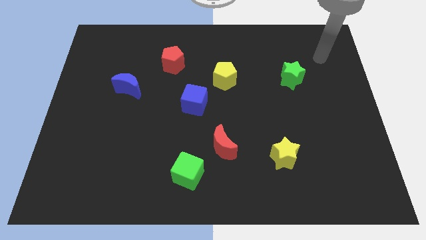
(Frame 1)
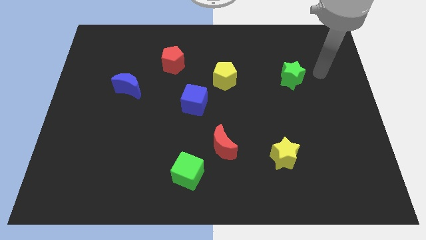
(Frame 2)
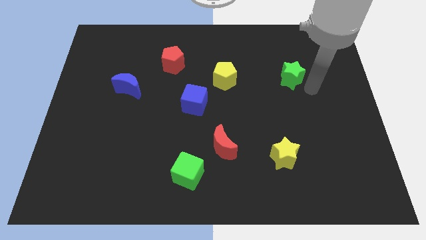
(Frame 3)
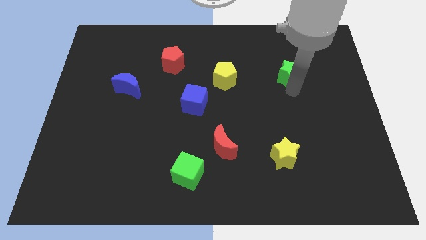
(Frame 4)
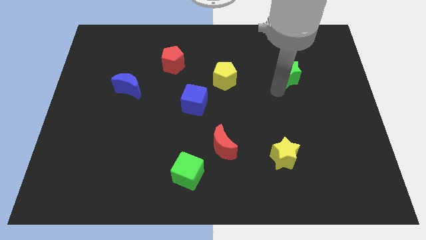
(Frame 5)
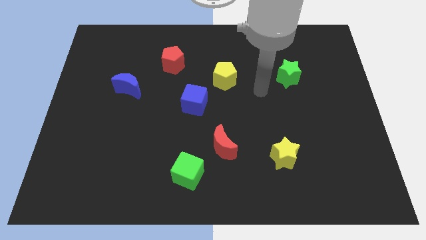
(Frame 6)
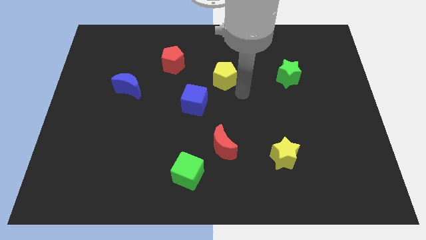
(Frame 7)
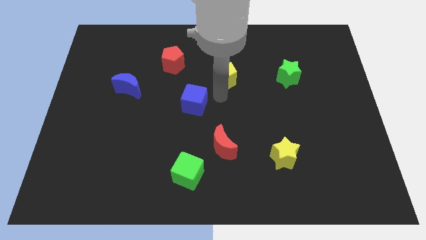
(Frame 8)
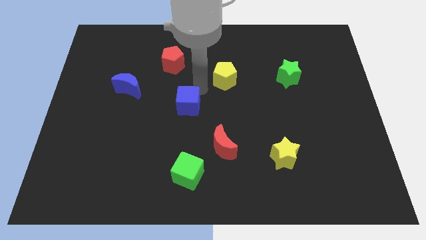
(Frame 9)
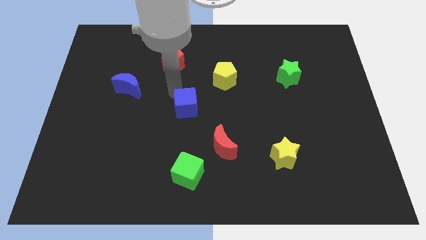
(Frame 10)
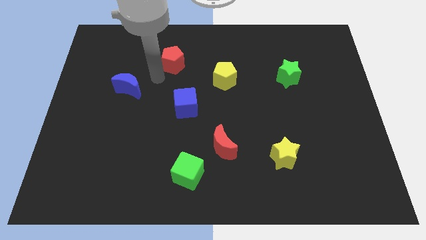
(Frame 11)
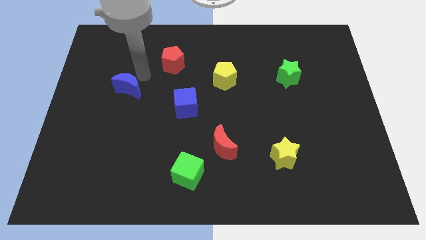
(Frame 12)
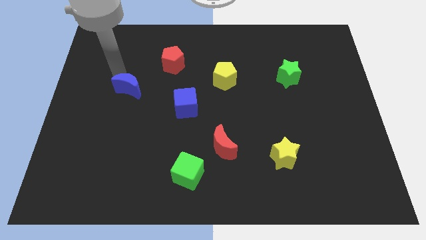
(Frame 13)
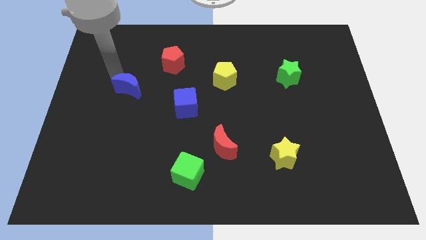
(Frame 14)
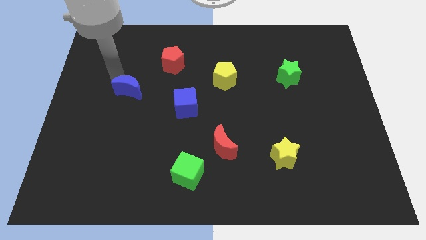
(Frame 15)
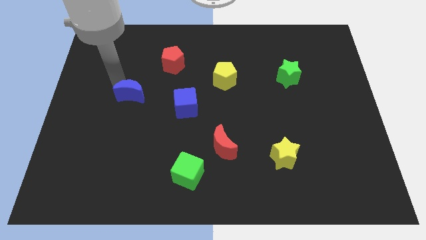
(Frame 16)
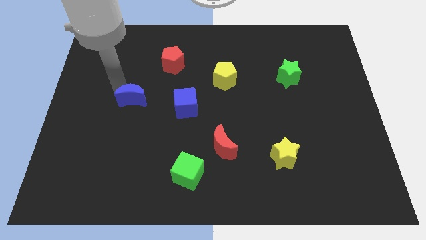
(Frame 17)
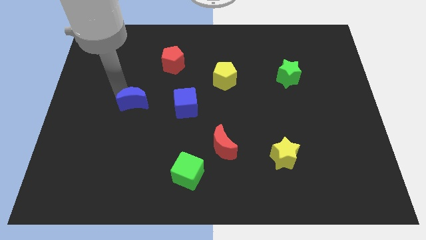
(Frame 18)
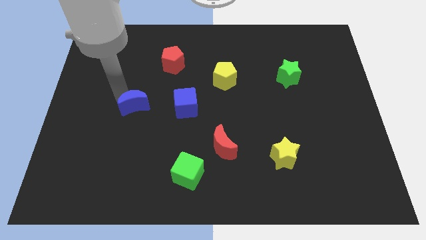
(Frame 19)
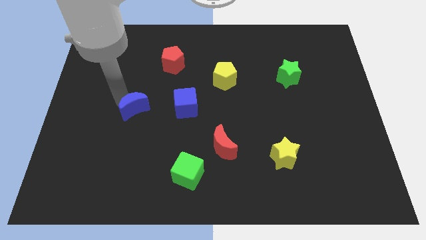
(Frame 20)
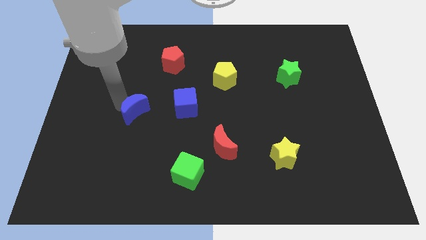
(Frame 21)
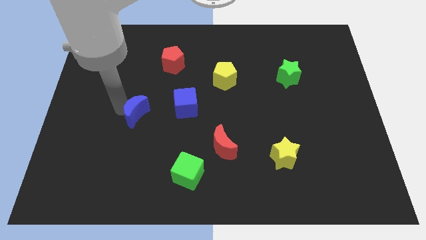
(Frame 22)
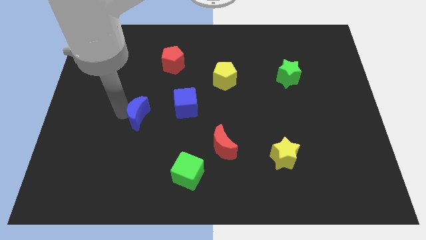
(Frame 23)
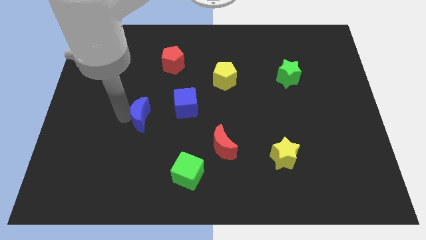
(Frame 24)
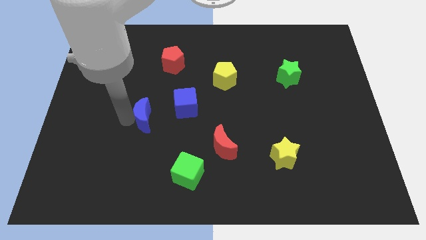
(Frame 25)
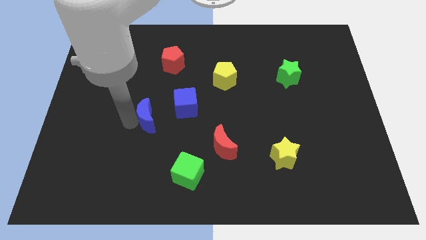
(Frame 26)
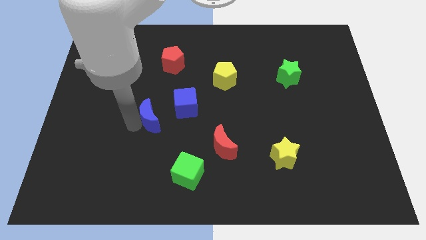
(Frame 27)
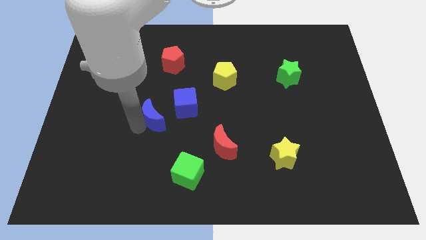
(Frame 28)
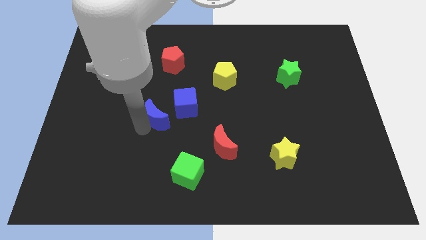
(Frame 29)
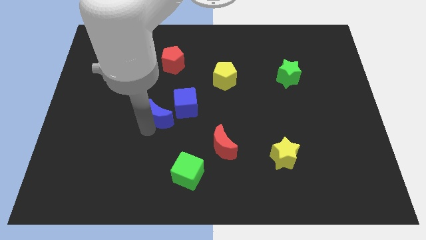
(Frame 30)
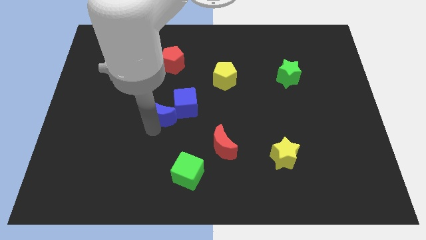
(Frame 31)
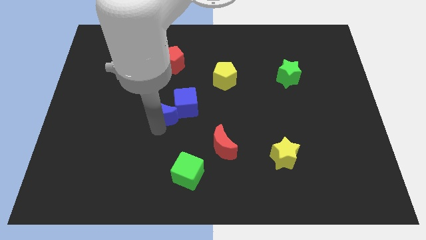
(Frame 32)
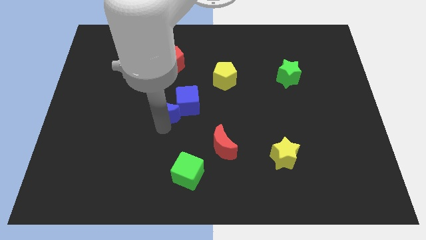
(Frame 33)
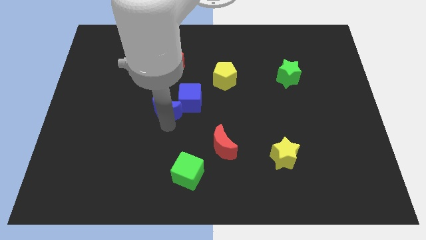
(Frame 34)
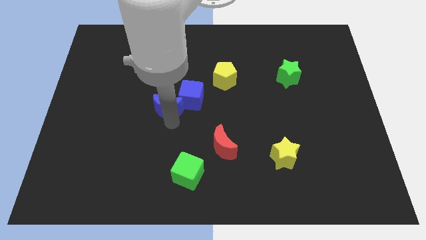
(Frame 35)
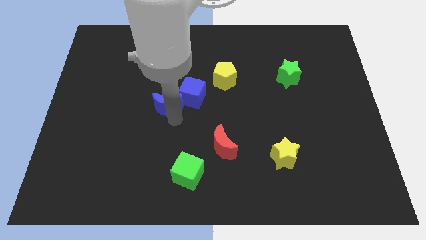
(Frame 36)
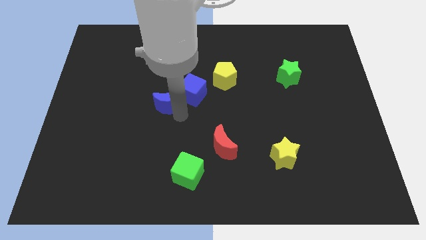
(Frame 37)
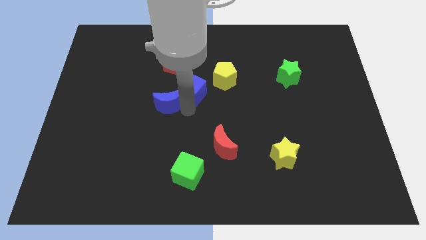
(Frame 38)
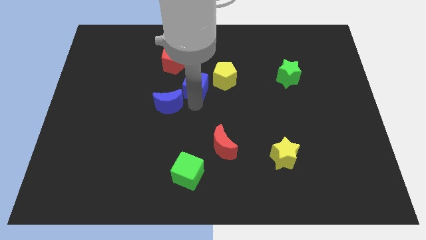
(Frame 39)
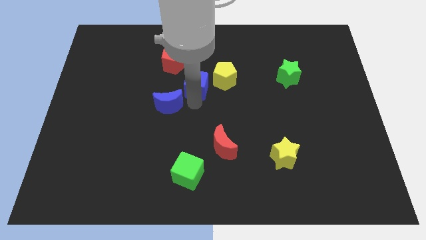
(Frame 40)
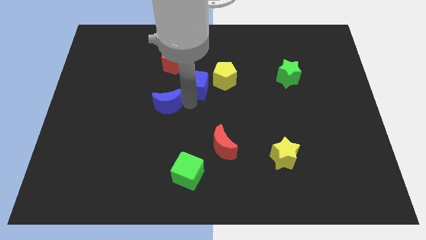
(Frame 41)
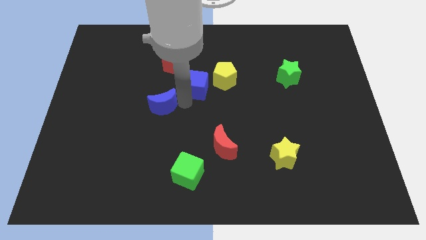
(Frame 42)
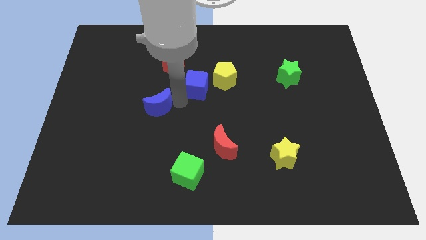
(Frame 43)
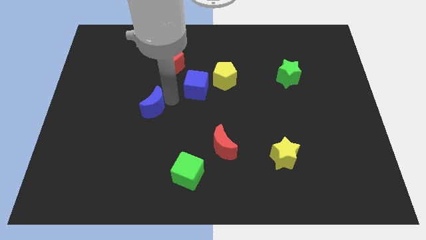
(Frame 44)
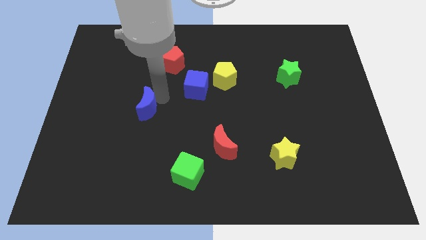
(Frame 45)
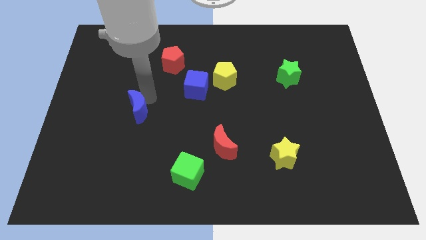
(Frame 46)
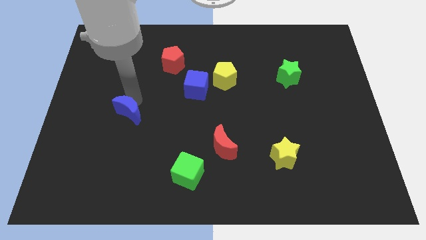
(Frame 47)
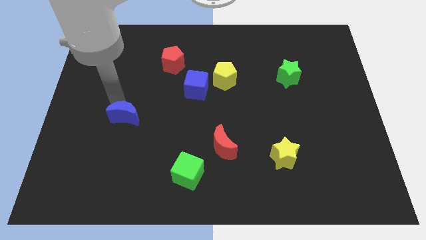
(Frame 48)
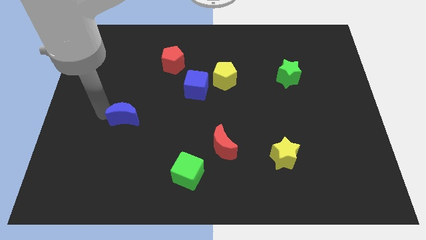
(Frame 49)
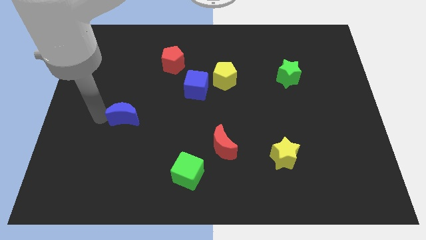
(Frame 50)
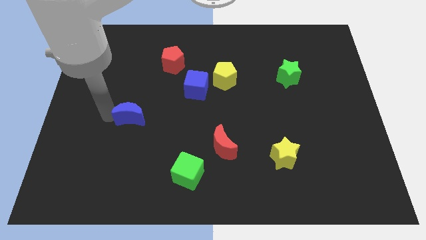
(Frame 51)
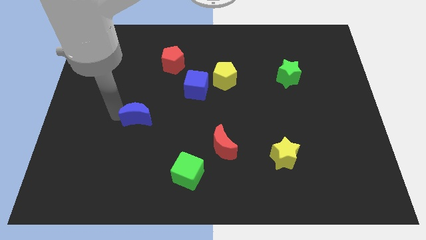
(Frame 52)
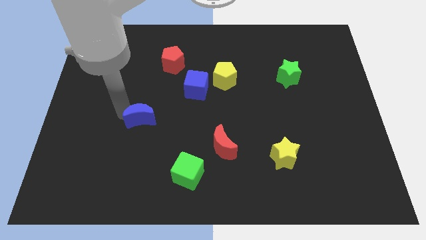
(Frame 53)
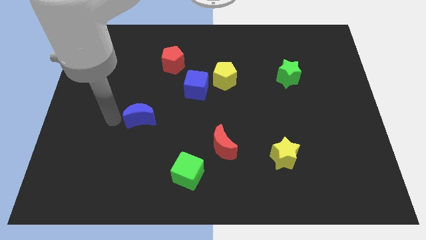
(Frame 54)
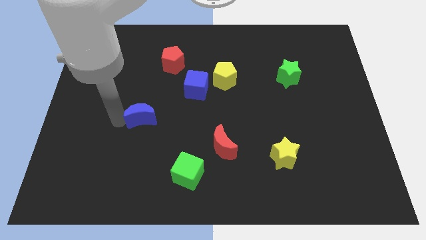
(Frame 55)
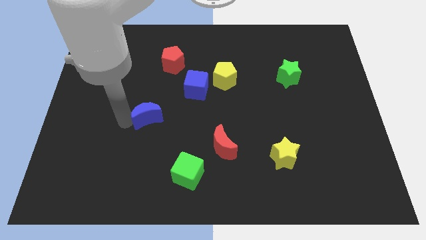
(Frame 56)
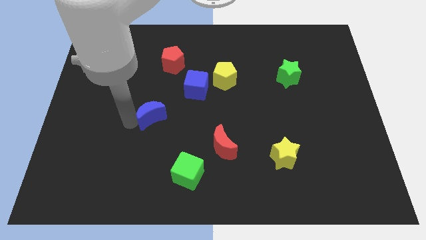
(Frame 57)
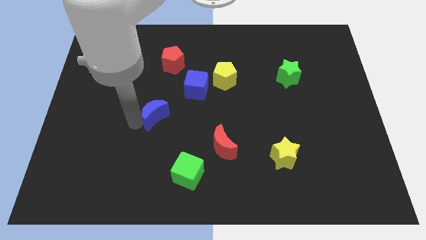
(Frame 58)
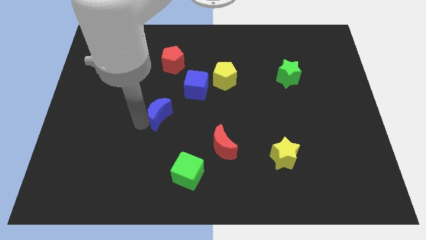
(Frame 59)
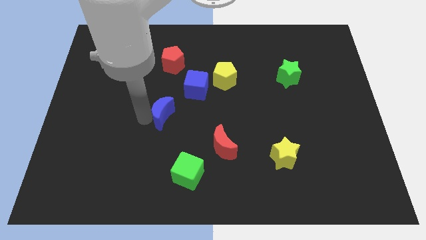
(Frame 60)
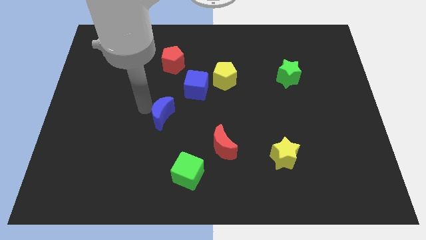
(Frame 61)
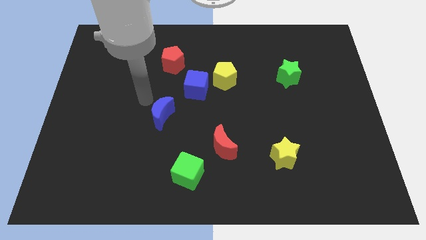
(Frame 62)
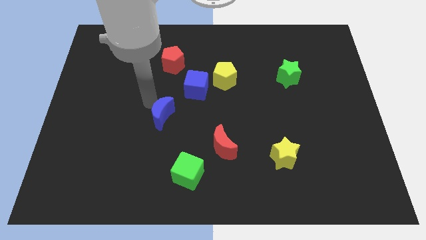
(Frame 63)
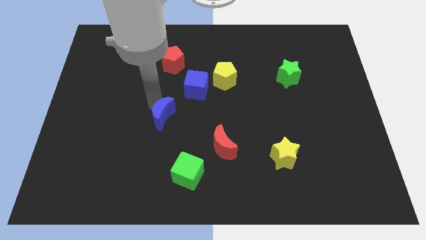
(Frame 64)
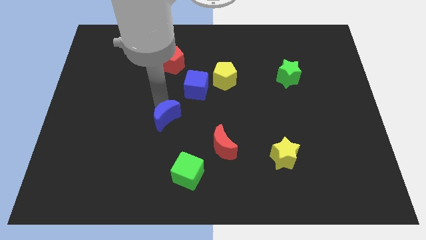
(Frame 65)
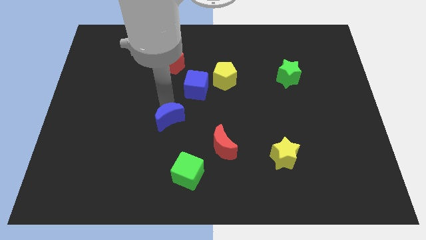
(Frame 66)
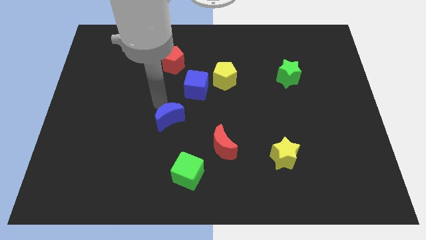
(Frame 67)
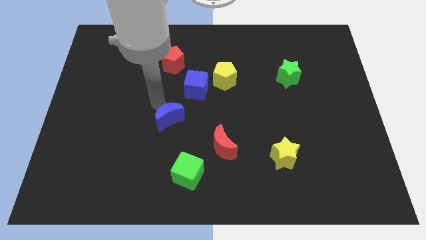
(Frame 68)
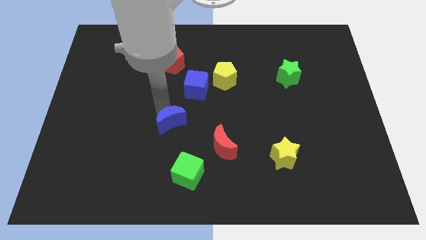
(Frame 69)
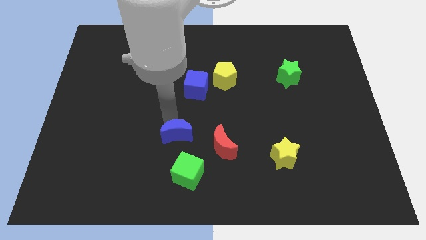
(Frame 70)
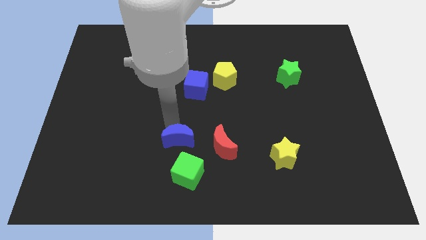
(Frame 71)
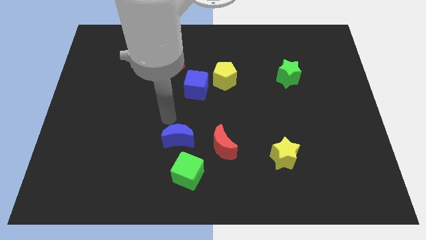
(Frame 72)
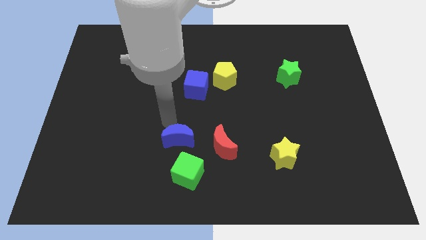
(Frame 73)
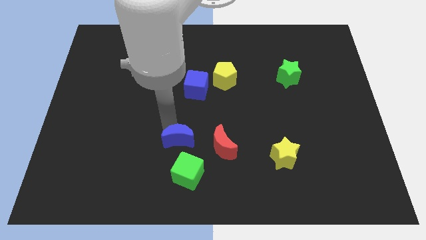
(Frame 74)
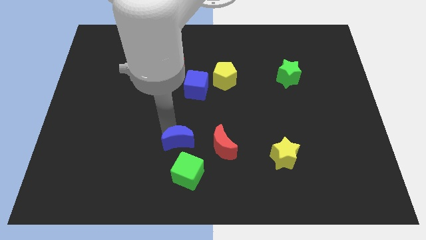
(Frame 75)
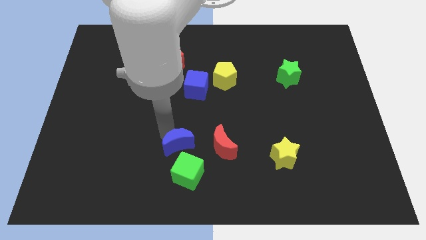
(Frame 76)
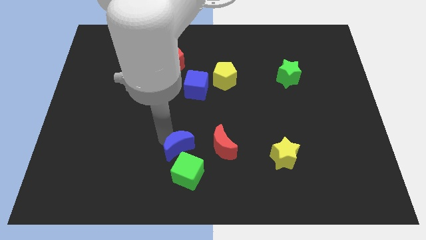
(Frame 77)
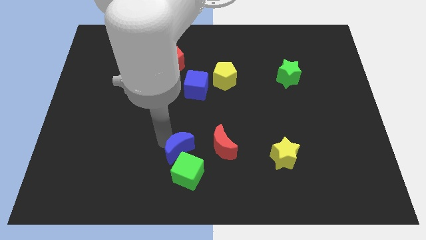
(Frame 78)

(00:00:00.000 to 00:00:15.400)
put the blue moon close to the green cube

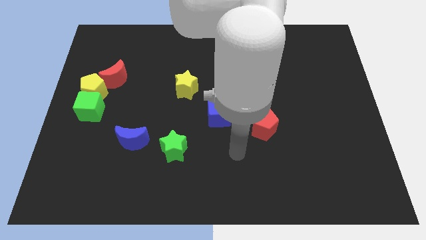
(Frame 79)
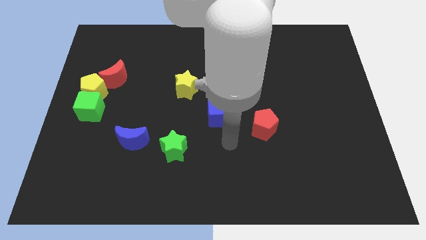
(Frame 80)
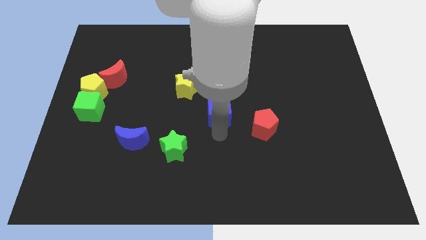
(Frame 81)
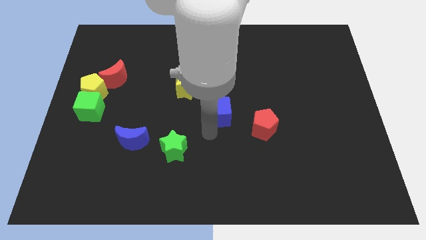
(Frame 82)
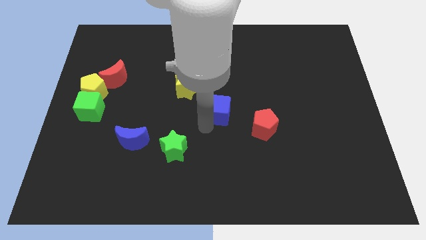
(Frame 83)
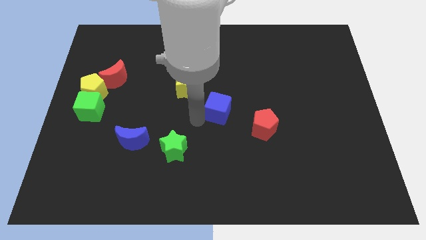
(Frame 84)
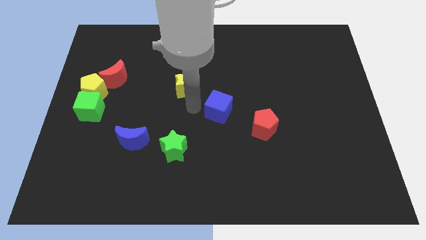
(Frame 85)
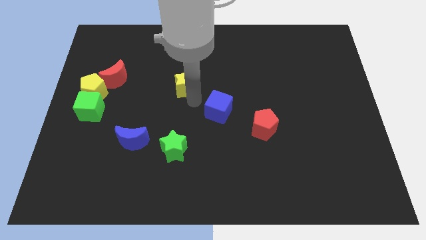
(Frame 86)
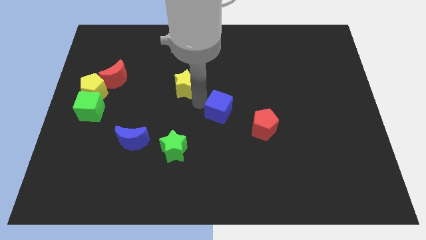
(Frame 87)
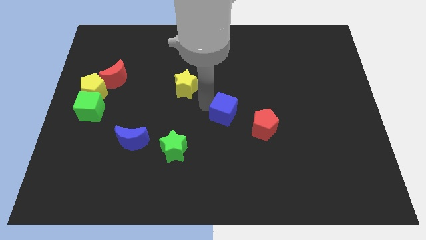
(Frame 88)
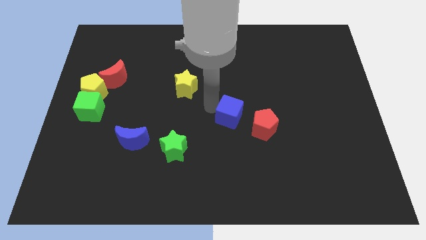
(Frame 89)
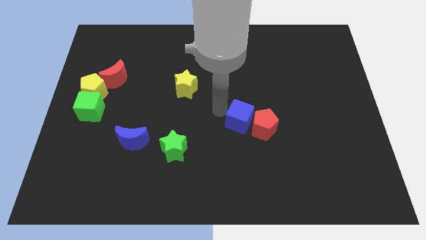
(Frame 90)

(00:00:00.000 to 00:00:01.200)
push the blue cube next to the red pentagon
